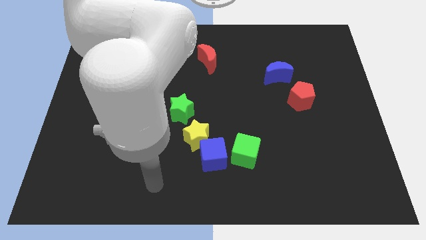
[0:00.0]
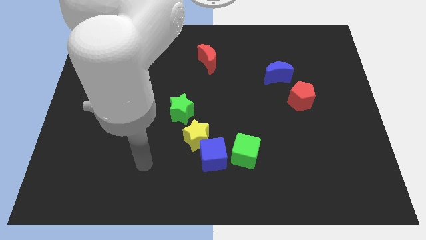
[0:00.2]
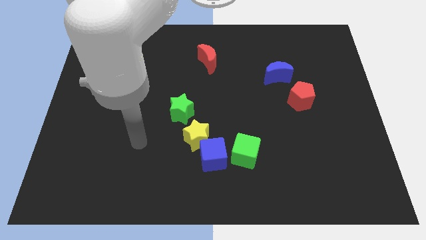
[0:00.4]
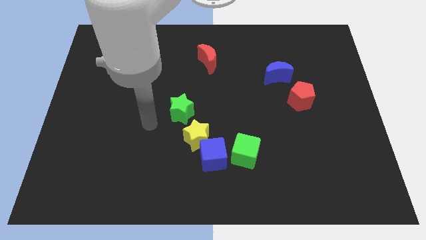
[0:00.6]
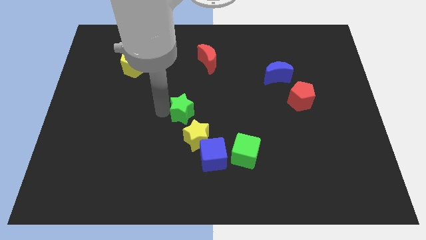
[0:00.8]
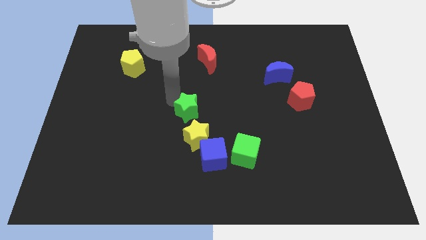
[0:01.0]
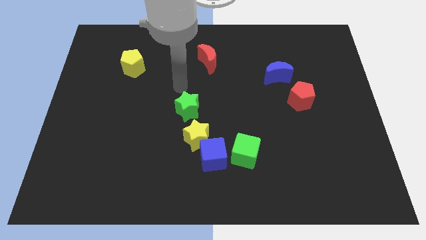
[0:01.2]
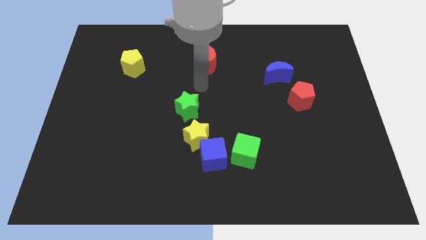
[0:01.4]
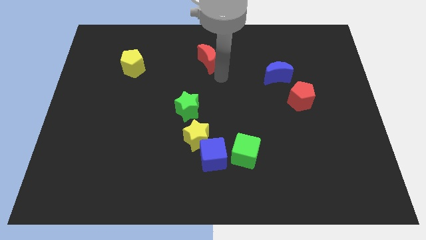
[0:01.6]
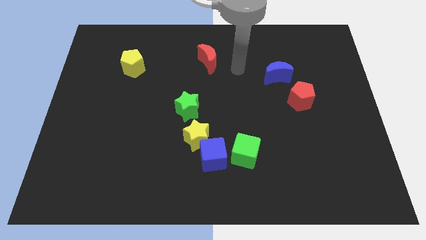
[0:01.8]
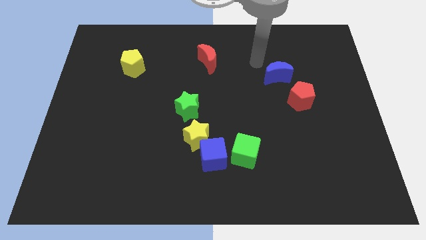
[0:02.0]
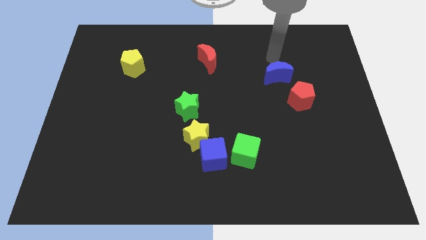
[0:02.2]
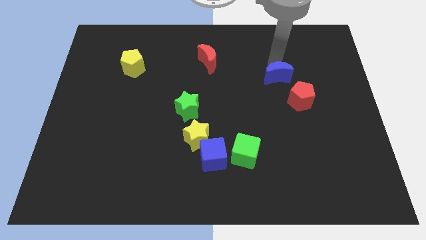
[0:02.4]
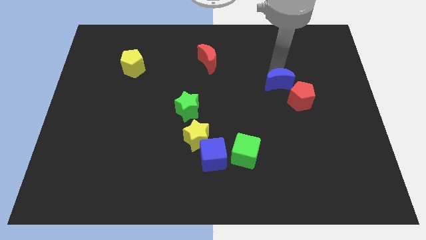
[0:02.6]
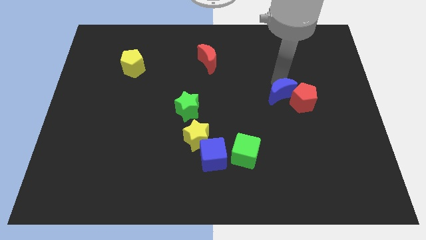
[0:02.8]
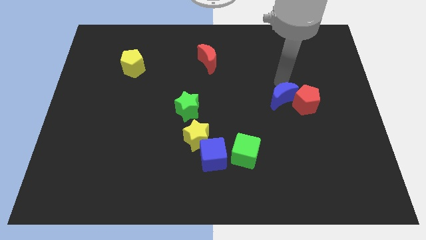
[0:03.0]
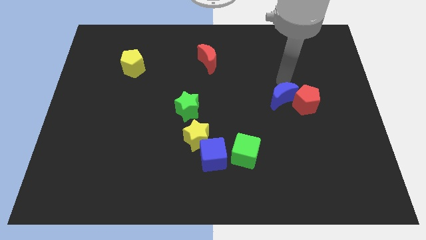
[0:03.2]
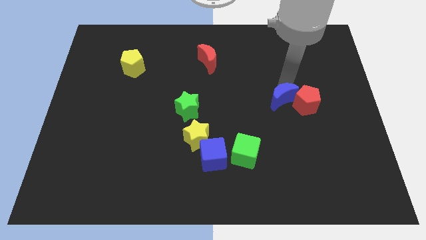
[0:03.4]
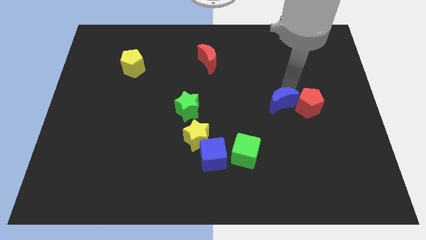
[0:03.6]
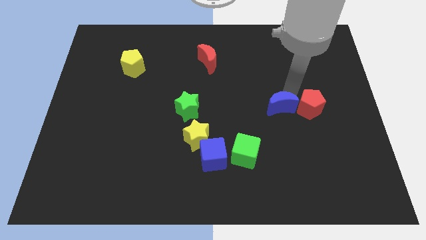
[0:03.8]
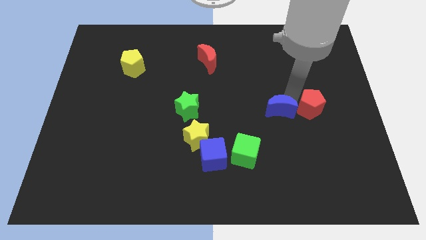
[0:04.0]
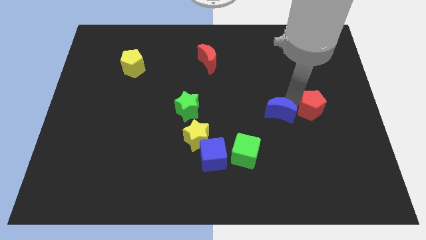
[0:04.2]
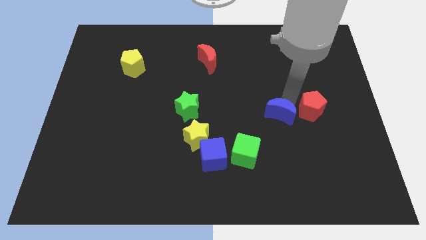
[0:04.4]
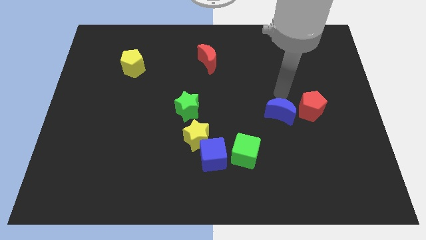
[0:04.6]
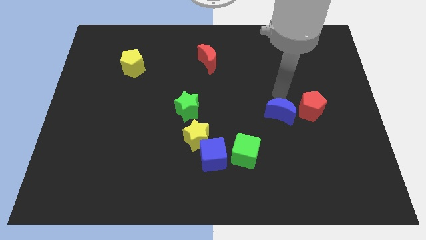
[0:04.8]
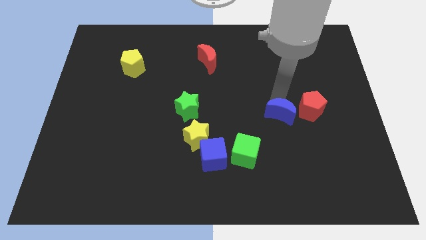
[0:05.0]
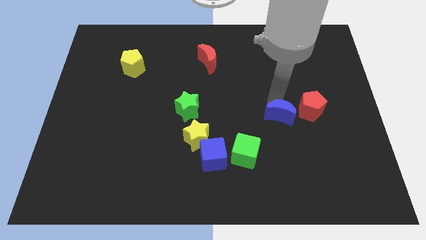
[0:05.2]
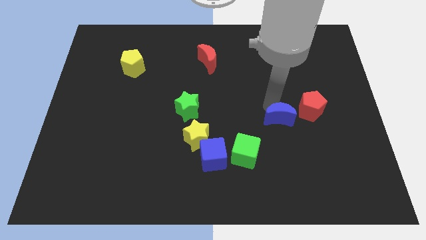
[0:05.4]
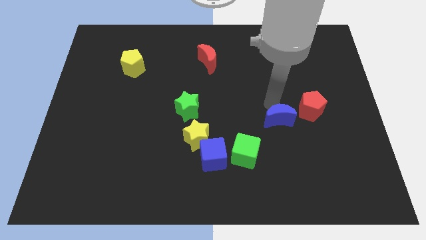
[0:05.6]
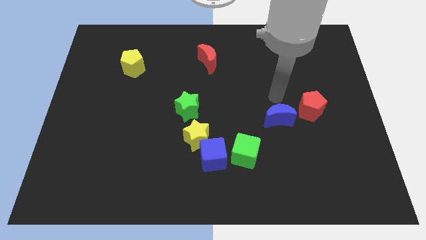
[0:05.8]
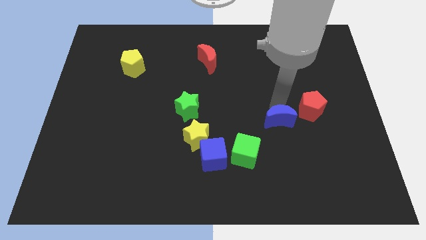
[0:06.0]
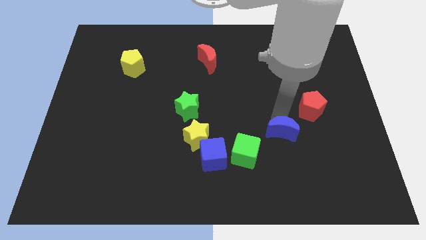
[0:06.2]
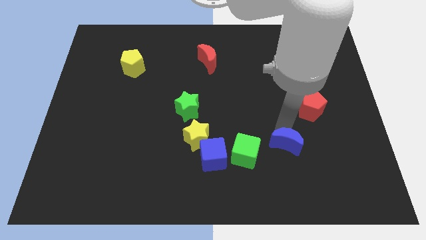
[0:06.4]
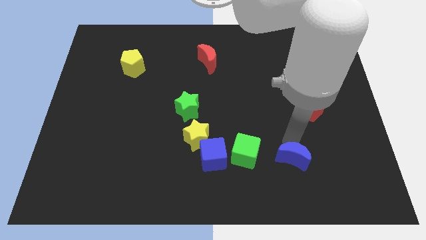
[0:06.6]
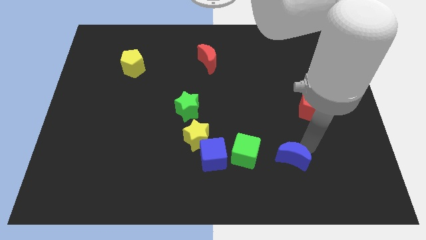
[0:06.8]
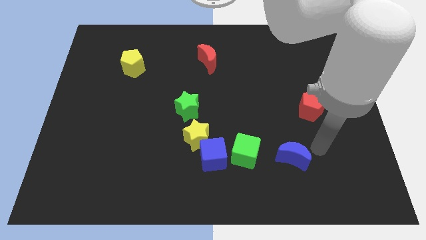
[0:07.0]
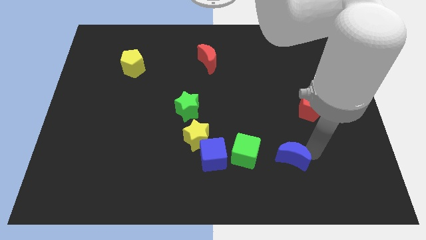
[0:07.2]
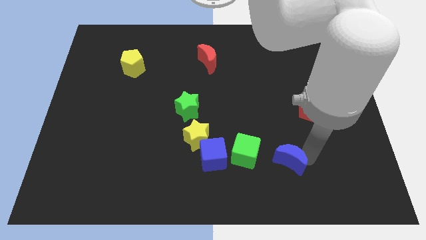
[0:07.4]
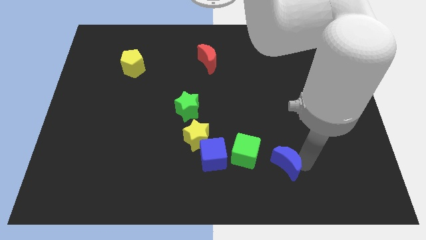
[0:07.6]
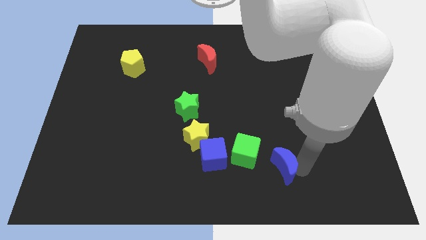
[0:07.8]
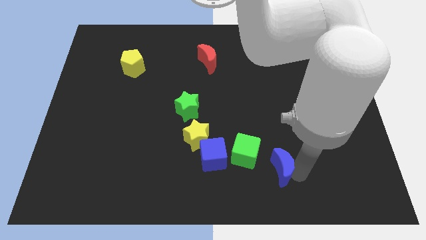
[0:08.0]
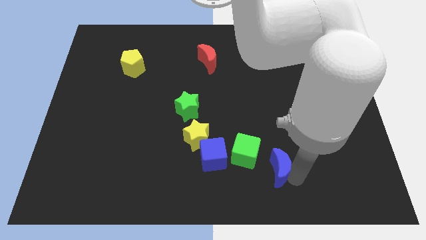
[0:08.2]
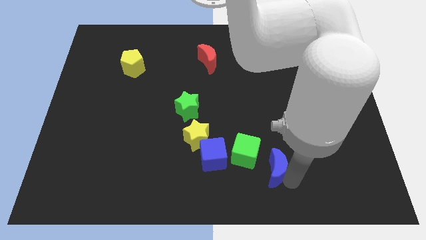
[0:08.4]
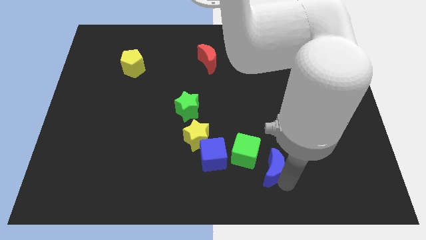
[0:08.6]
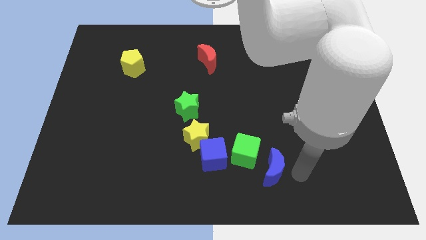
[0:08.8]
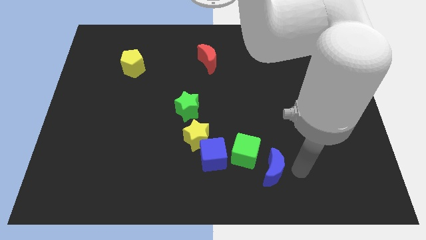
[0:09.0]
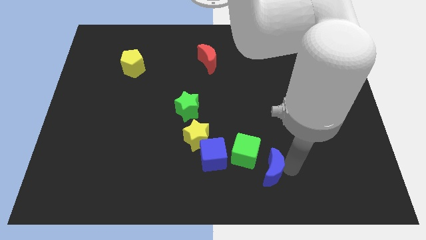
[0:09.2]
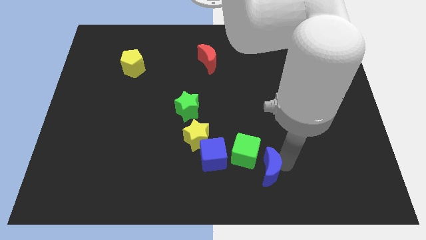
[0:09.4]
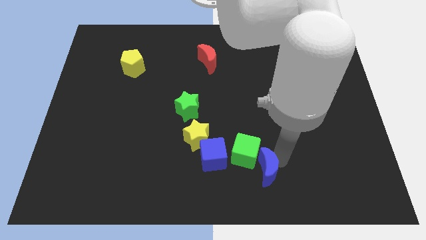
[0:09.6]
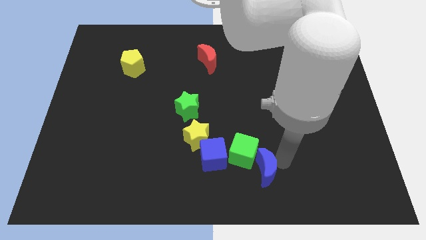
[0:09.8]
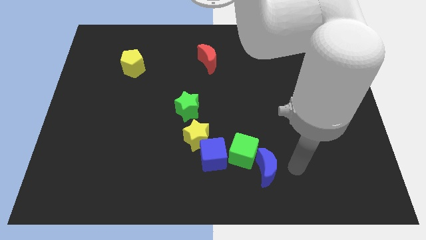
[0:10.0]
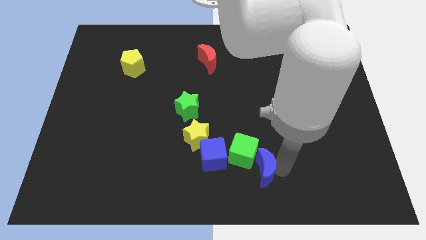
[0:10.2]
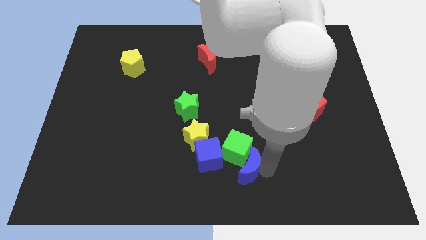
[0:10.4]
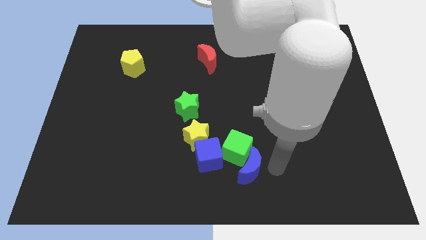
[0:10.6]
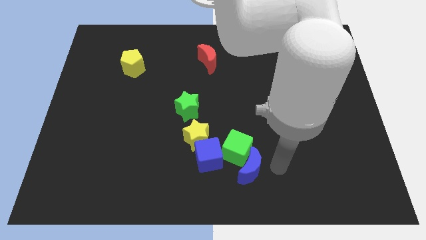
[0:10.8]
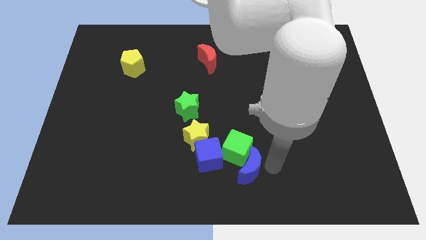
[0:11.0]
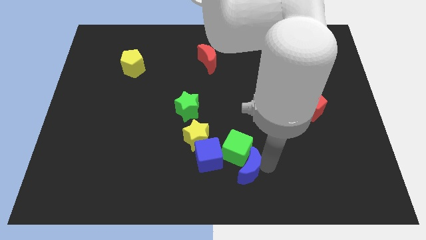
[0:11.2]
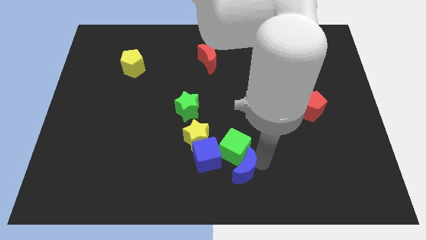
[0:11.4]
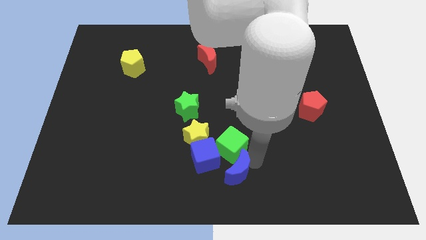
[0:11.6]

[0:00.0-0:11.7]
move the blue moon downwards and left

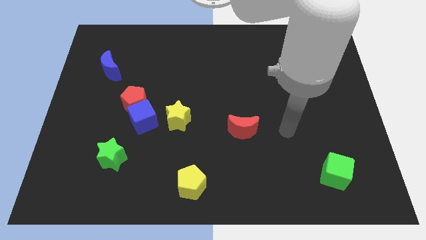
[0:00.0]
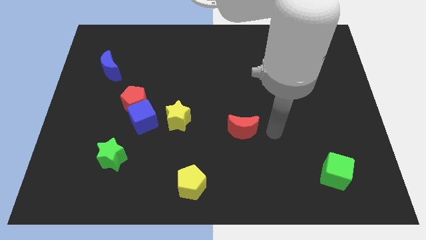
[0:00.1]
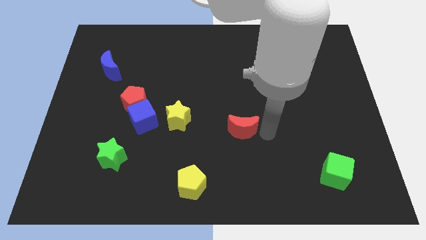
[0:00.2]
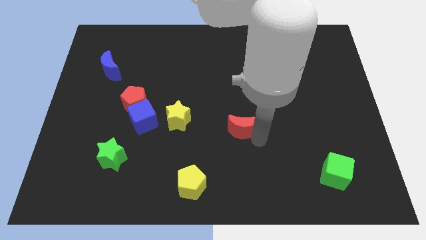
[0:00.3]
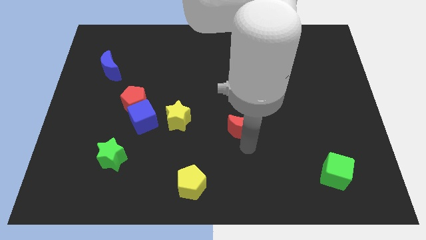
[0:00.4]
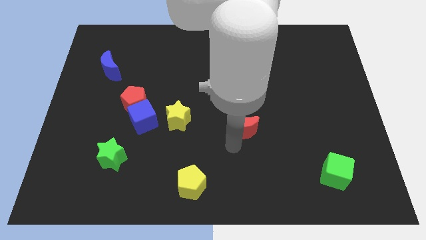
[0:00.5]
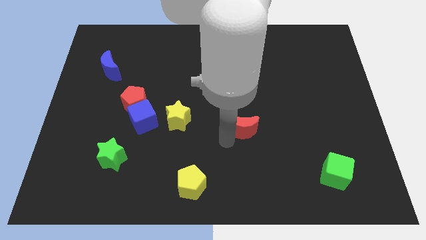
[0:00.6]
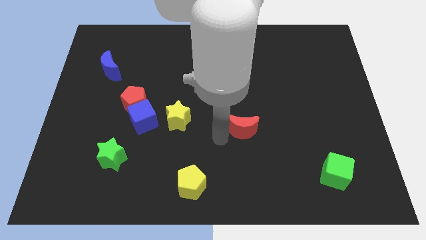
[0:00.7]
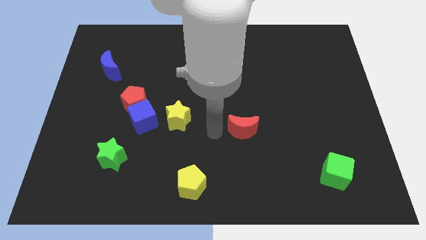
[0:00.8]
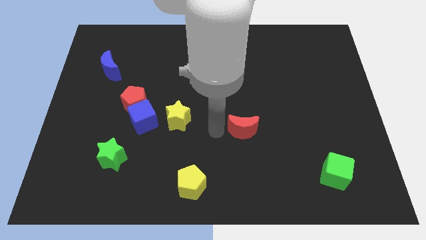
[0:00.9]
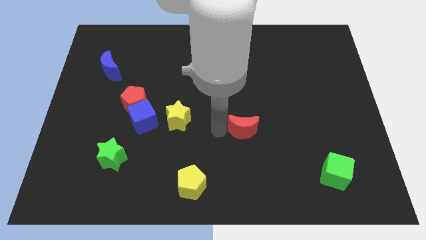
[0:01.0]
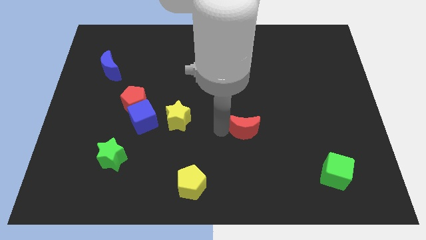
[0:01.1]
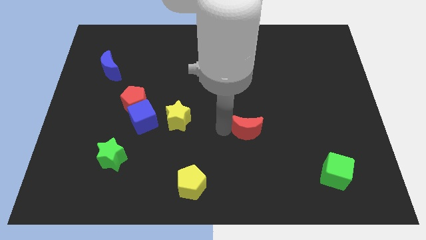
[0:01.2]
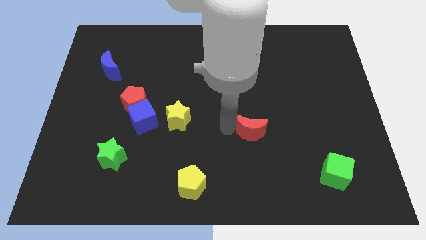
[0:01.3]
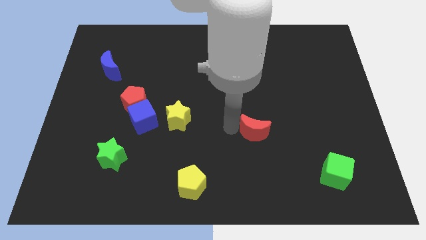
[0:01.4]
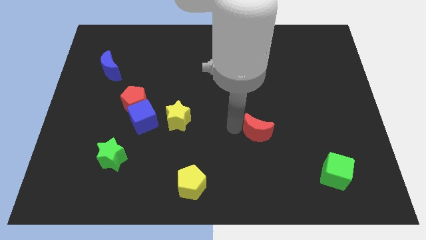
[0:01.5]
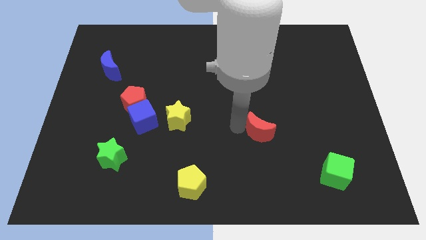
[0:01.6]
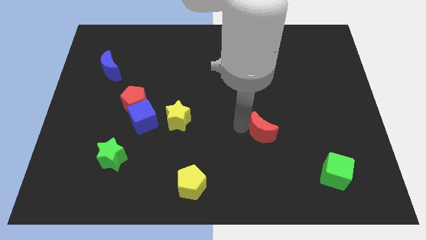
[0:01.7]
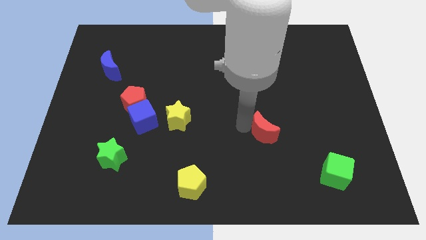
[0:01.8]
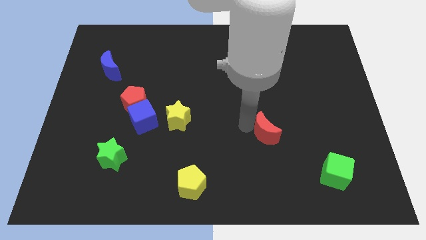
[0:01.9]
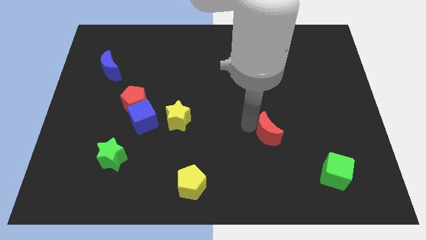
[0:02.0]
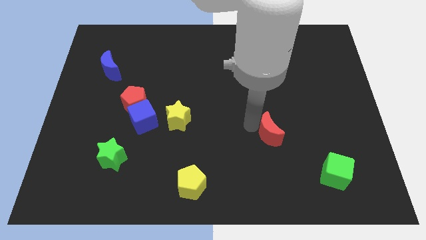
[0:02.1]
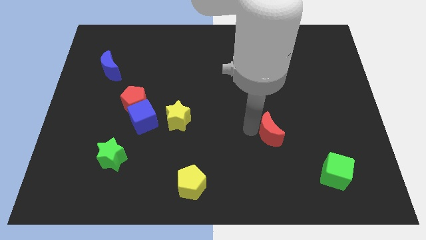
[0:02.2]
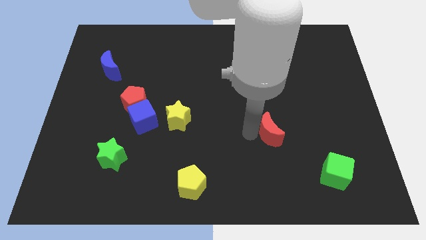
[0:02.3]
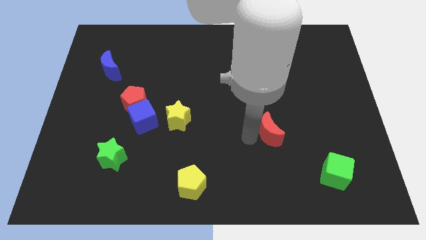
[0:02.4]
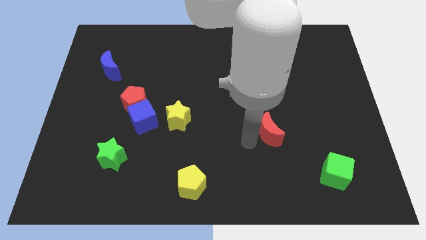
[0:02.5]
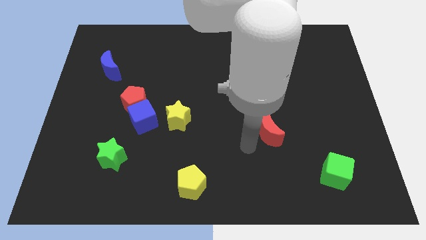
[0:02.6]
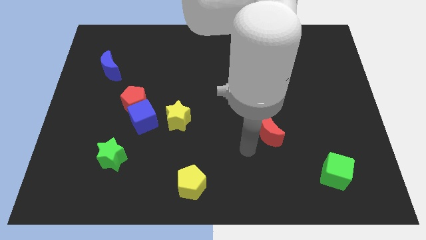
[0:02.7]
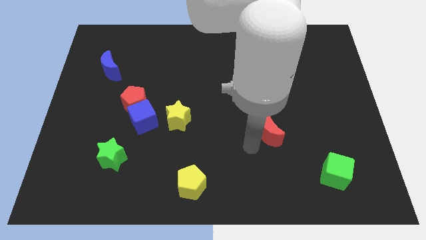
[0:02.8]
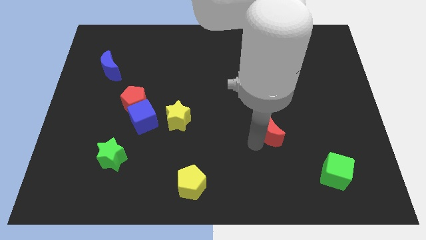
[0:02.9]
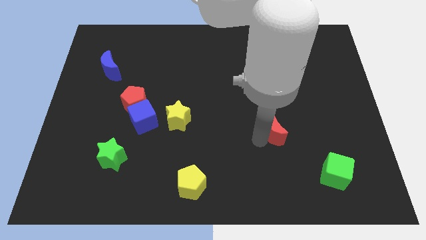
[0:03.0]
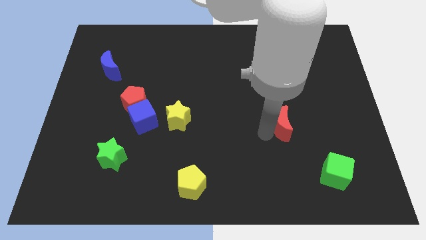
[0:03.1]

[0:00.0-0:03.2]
move the red moon a bit right
